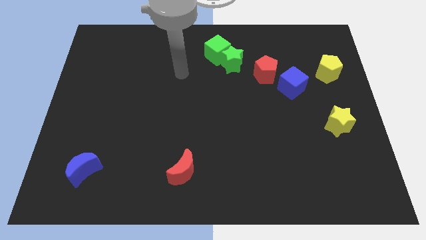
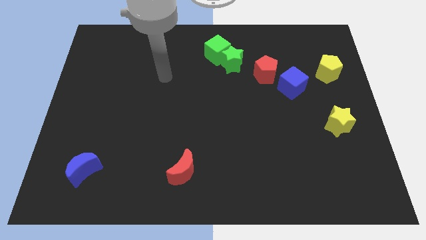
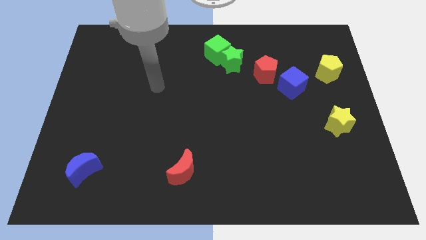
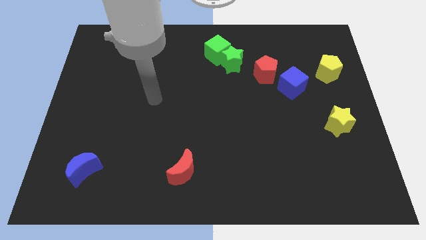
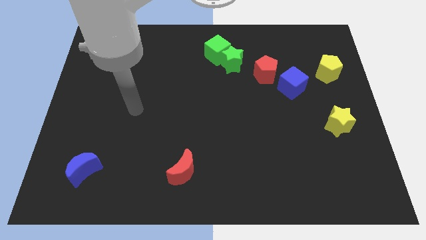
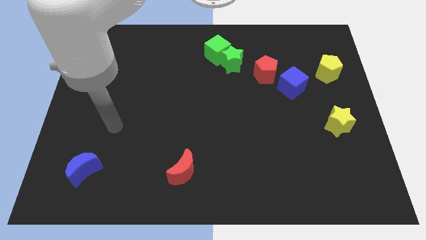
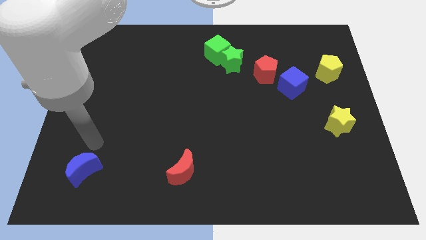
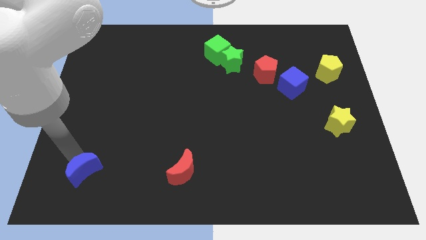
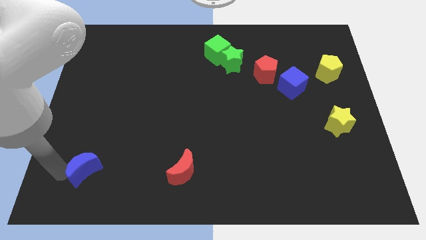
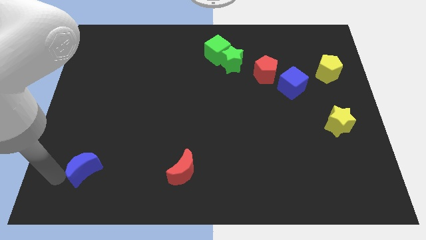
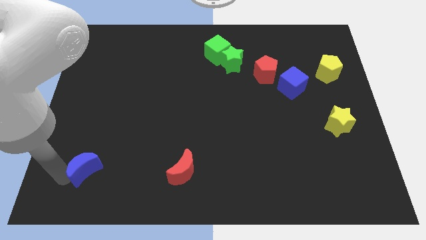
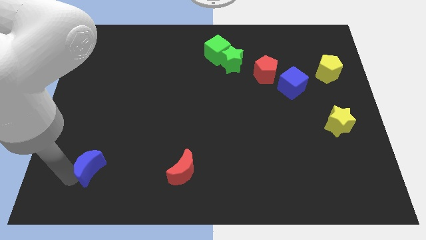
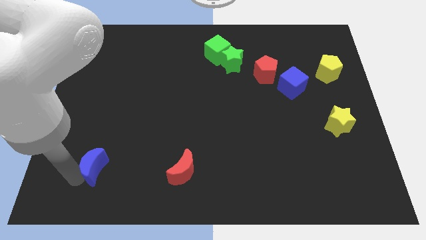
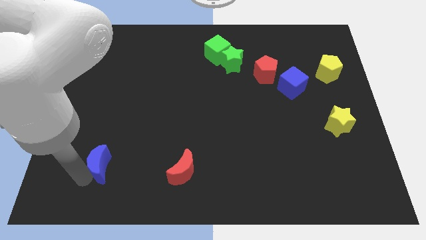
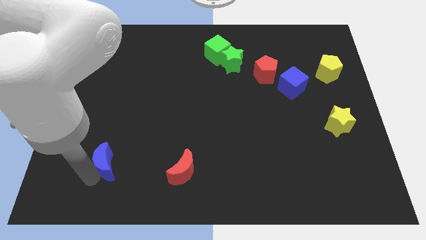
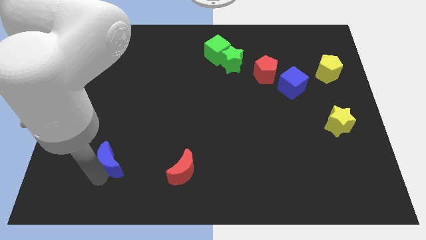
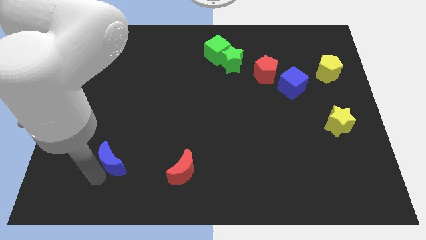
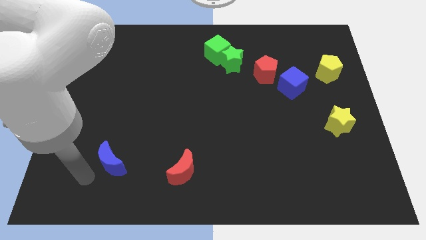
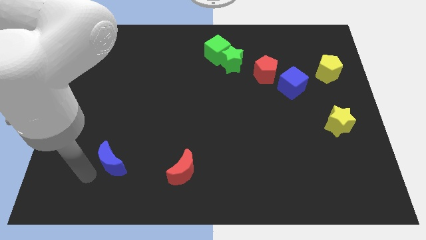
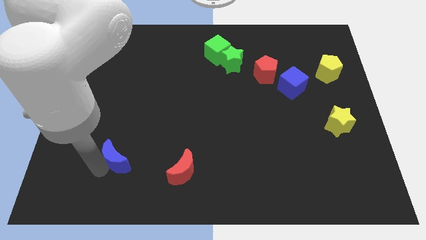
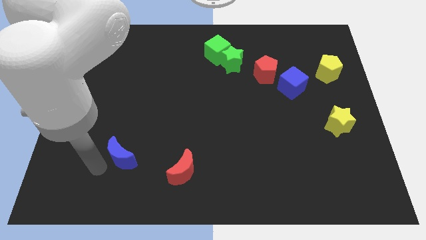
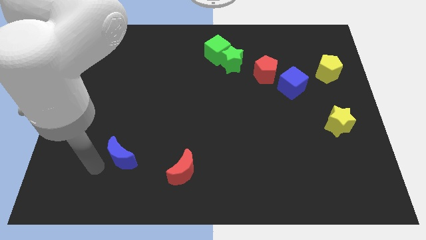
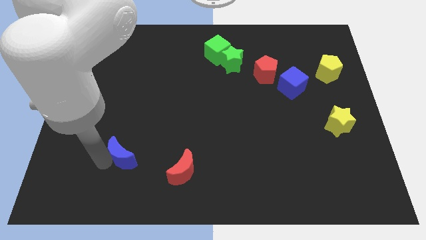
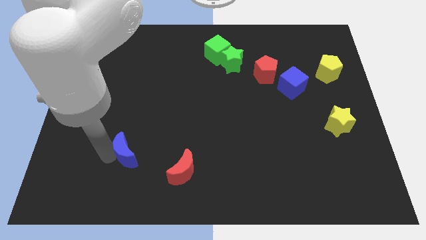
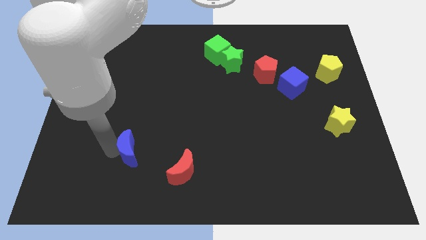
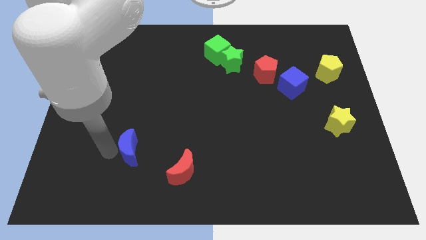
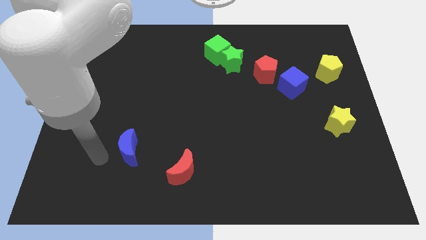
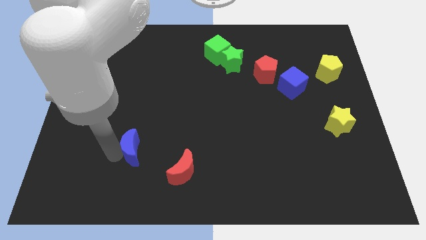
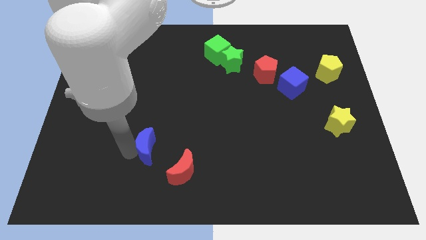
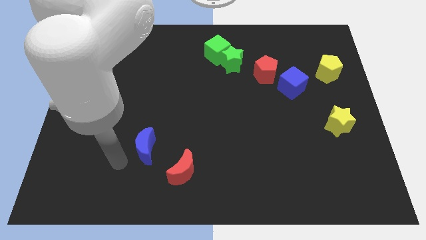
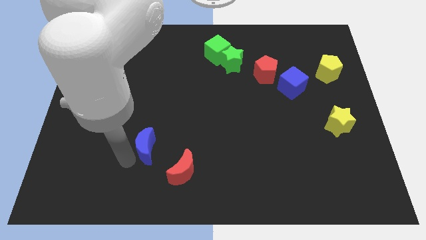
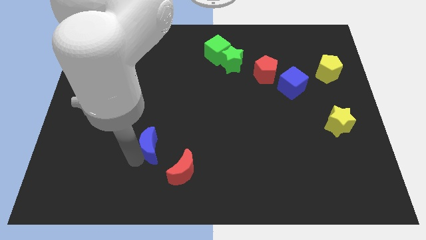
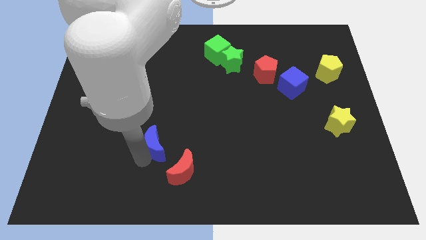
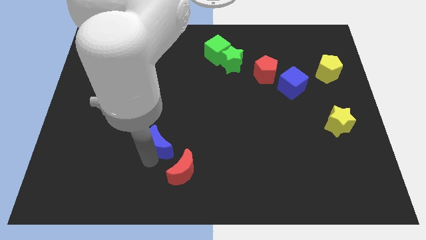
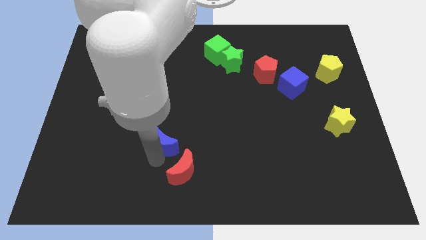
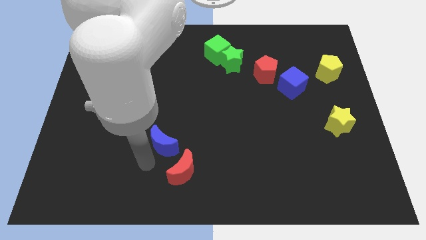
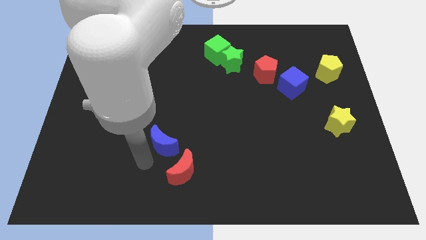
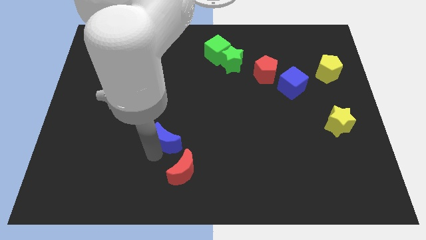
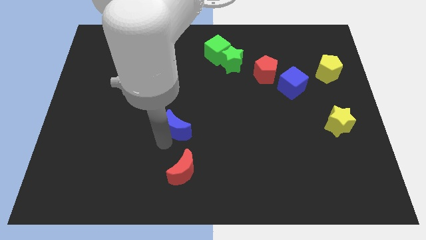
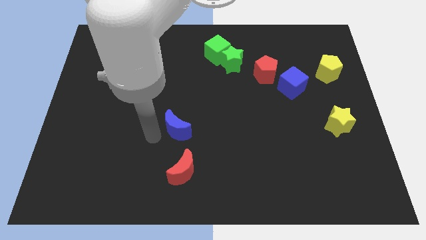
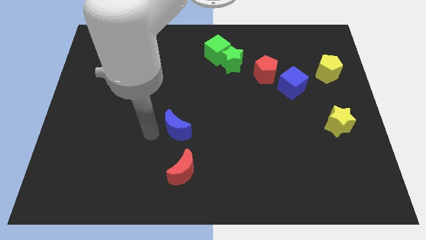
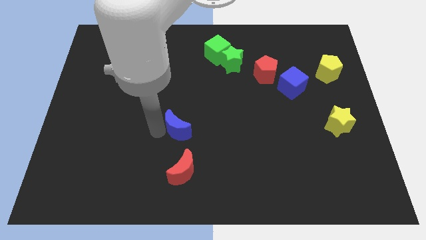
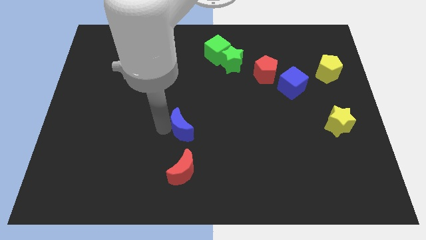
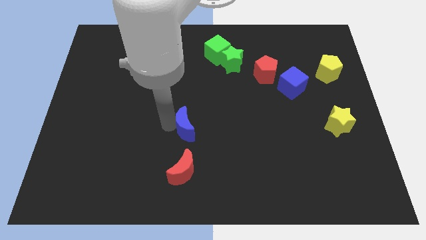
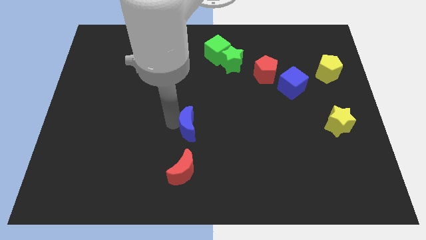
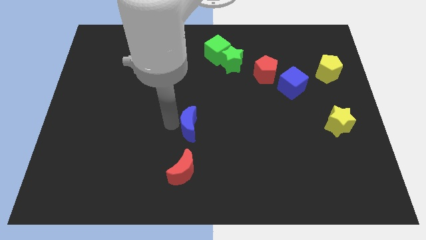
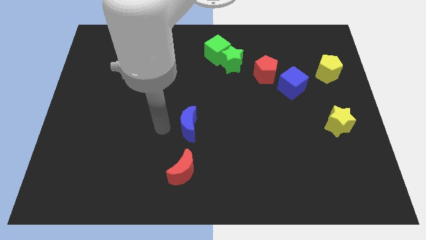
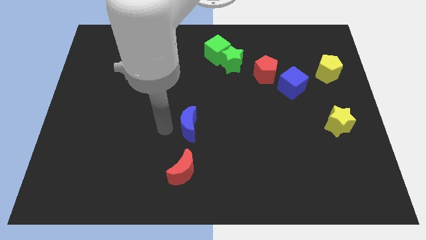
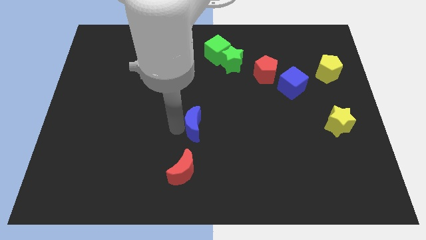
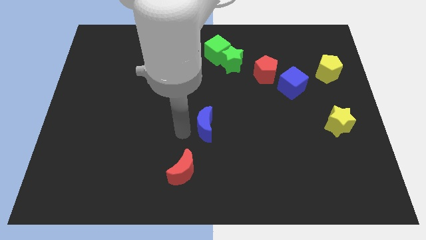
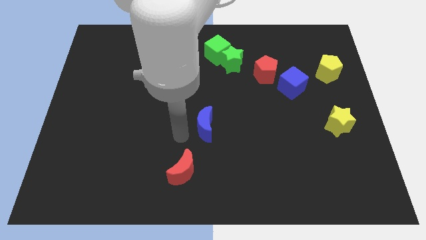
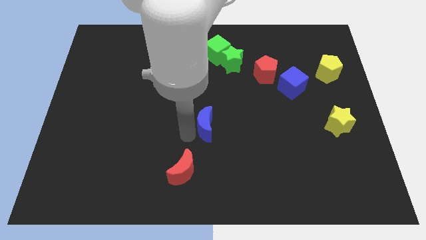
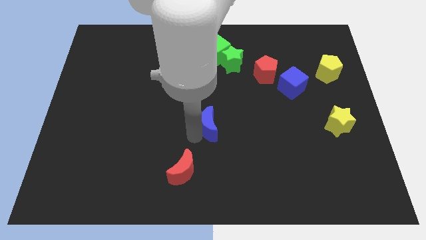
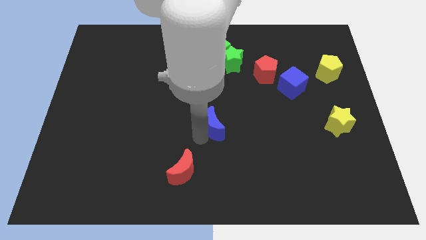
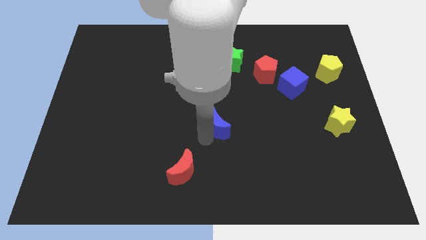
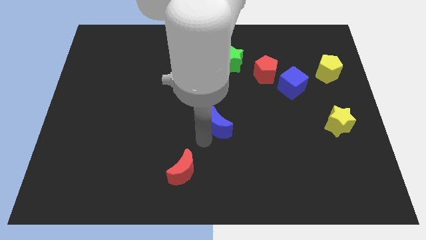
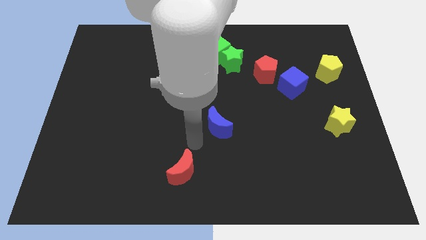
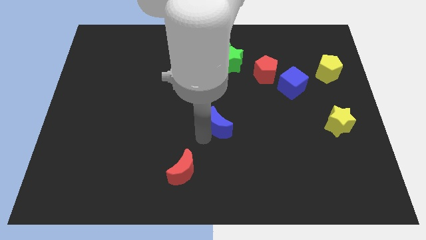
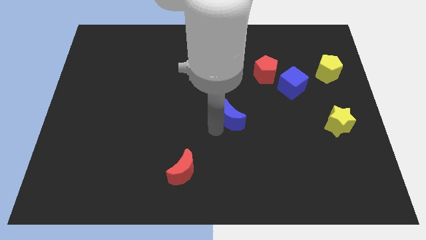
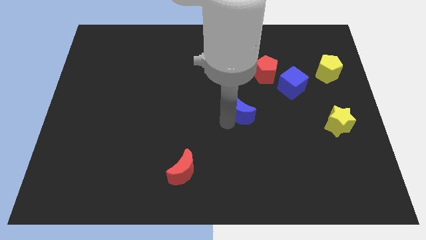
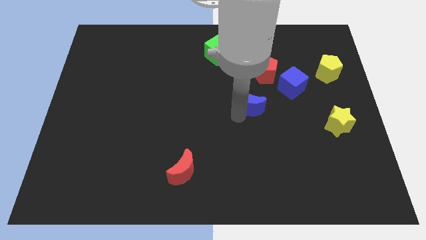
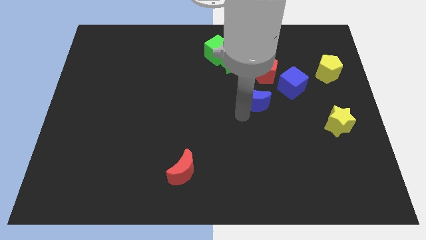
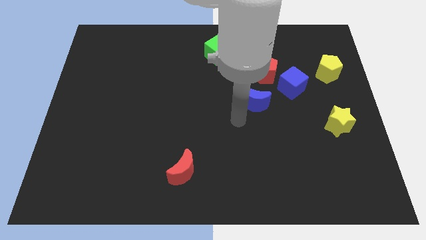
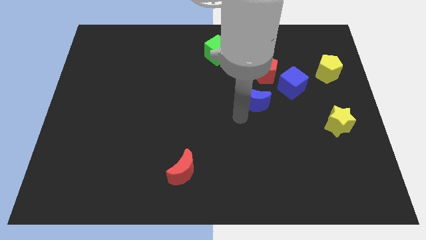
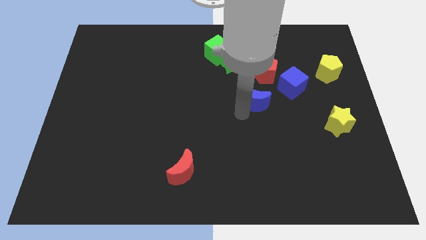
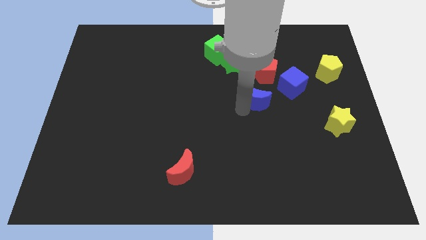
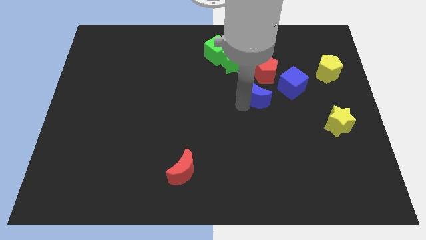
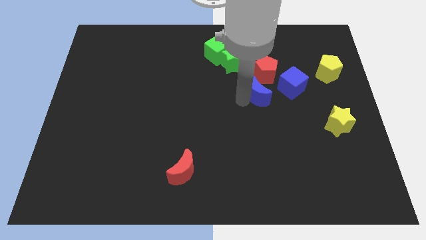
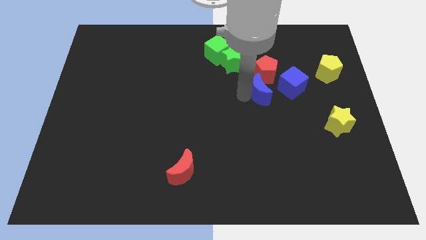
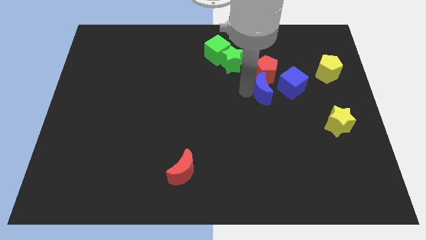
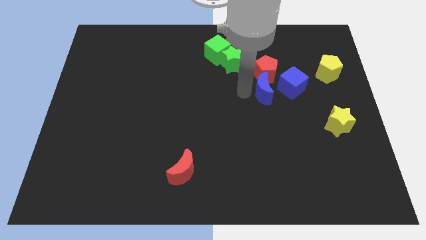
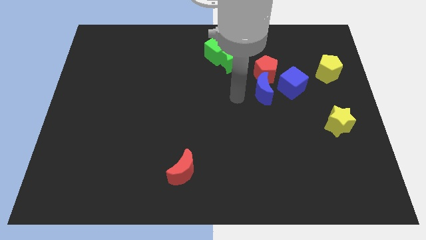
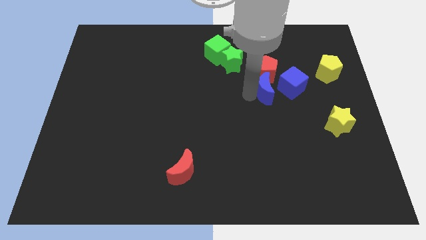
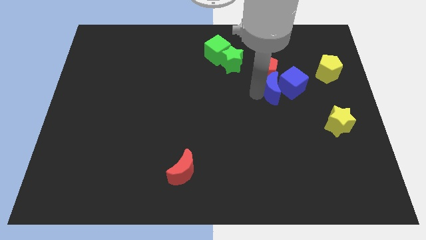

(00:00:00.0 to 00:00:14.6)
slide the blue moon close to the blue cube

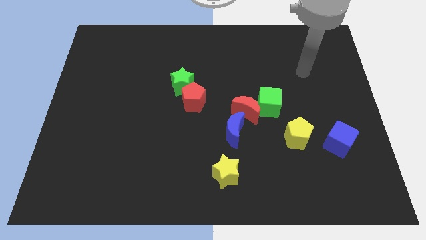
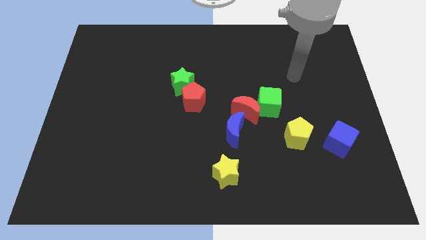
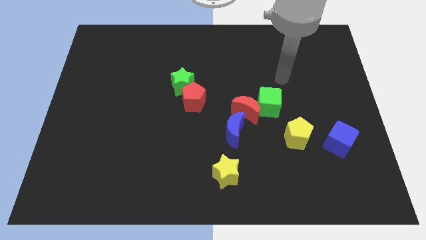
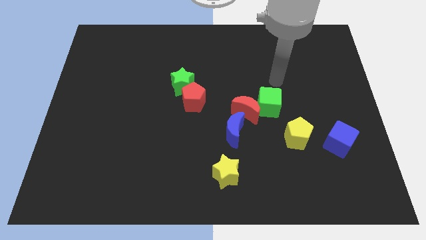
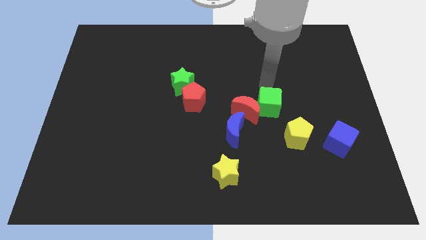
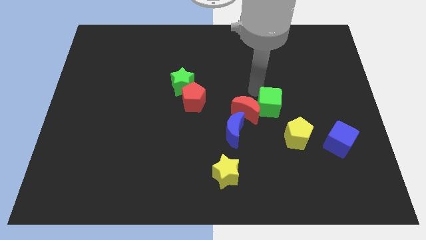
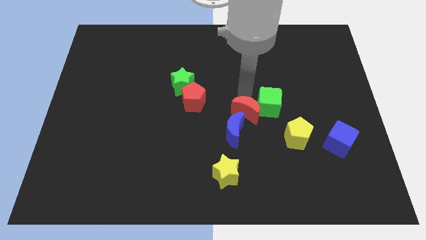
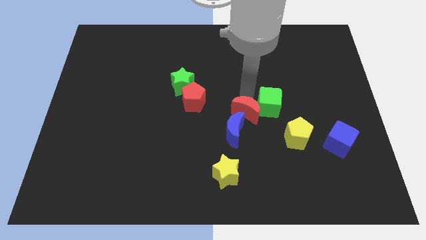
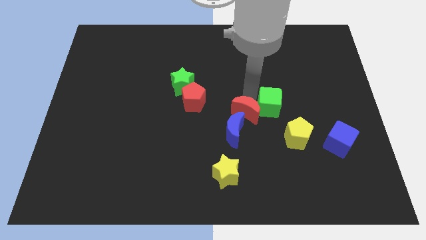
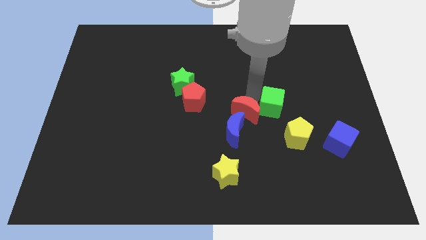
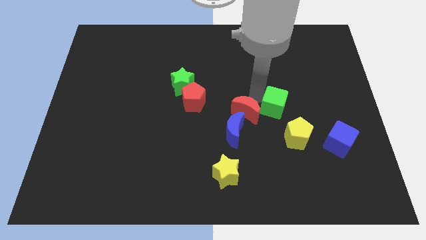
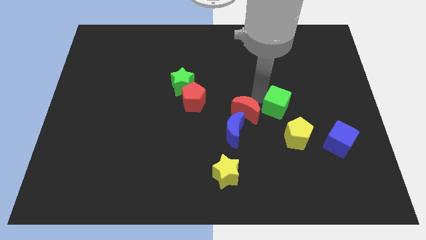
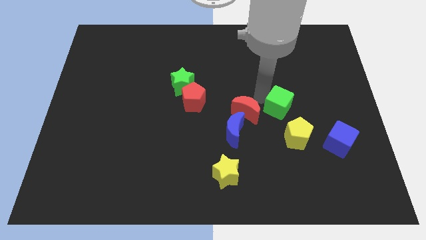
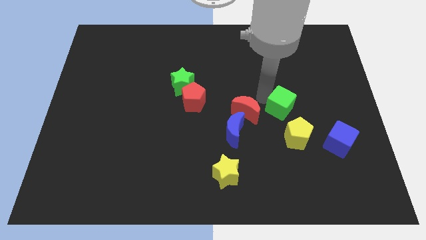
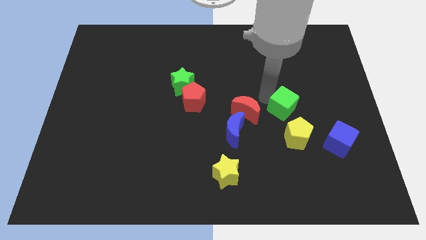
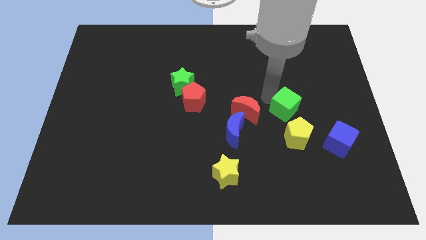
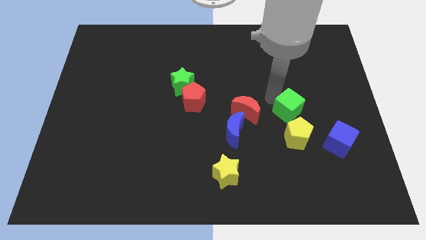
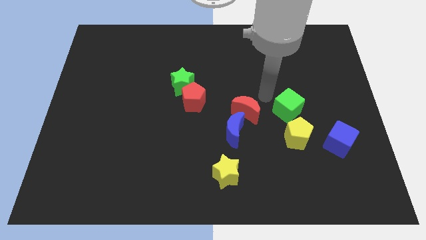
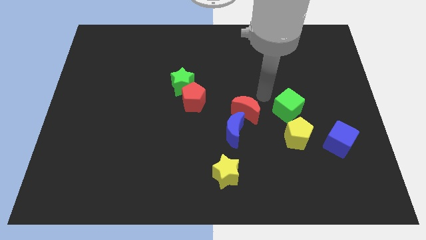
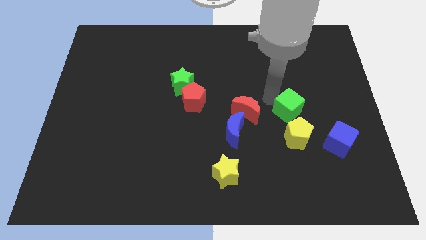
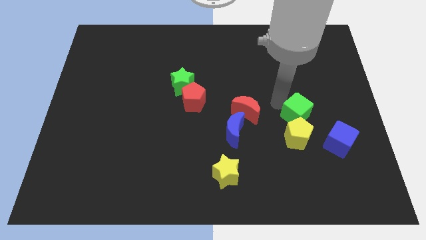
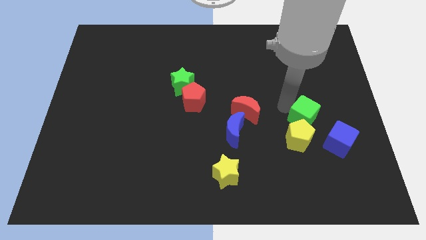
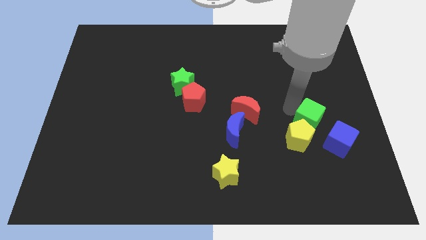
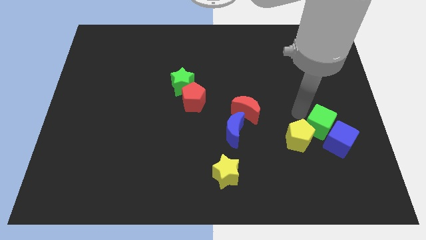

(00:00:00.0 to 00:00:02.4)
push the green cube close to the blue cube
